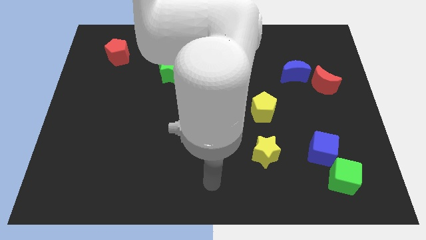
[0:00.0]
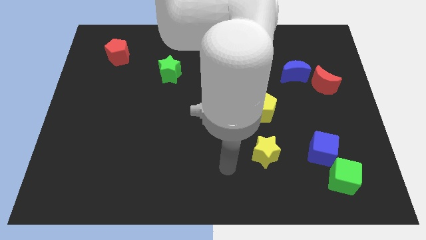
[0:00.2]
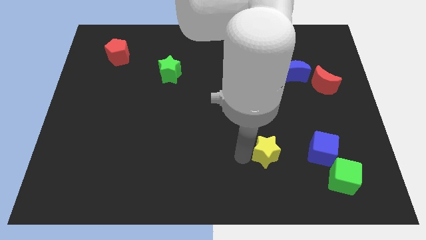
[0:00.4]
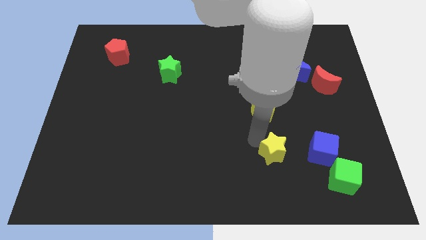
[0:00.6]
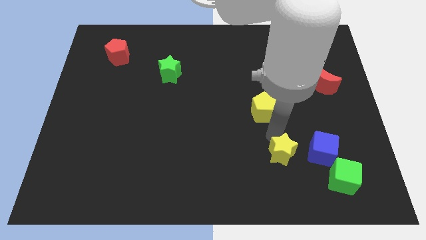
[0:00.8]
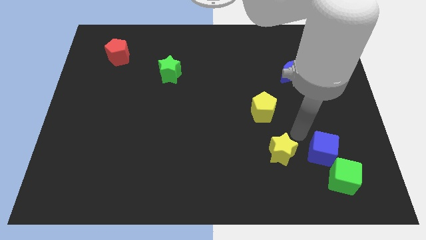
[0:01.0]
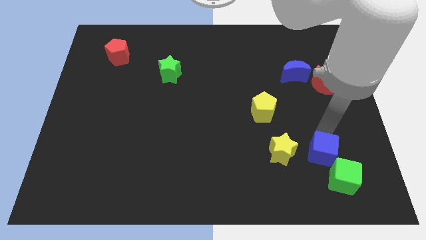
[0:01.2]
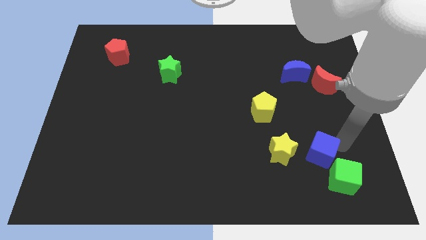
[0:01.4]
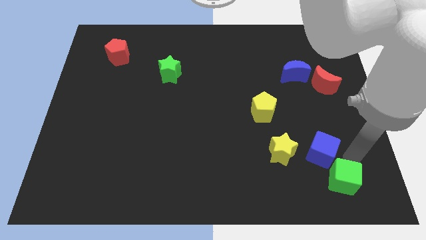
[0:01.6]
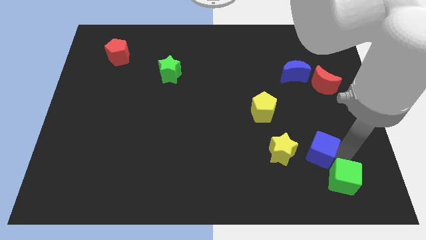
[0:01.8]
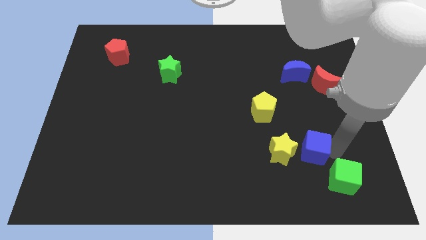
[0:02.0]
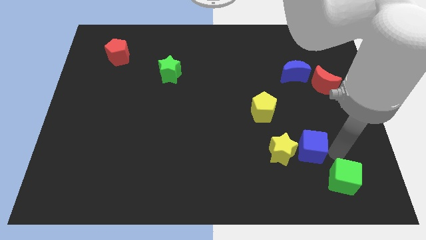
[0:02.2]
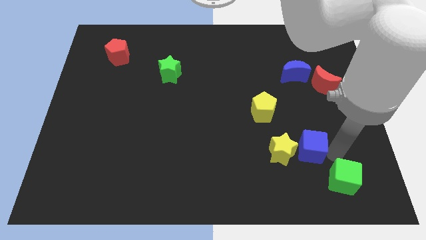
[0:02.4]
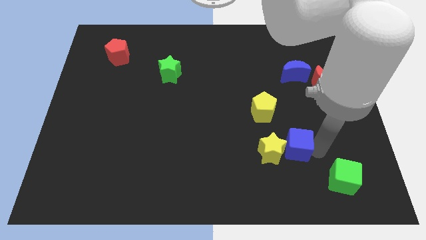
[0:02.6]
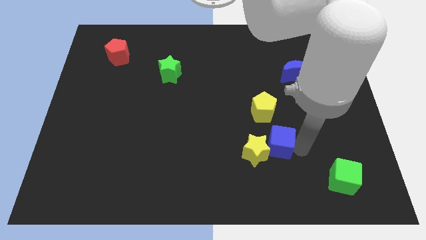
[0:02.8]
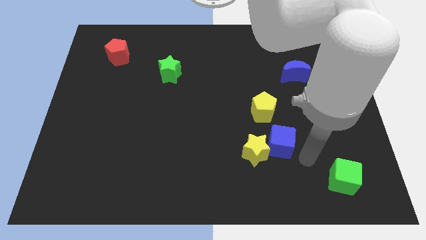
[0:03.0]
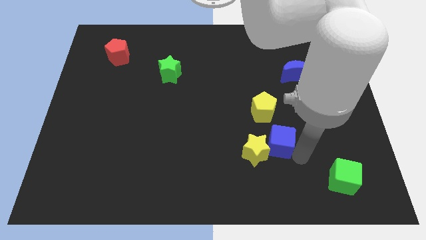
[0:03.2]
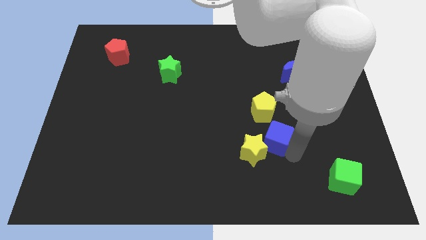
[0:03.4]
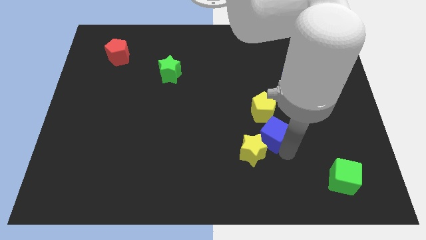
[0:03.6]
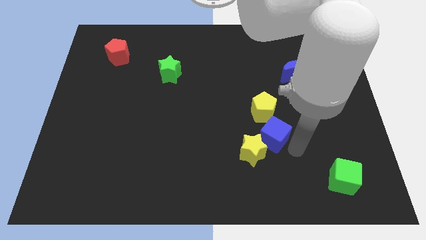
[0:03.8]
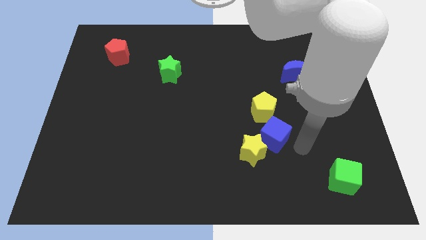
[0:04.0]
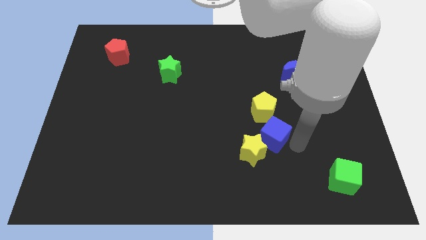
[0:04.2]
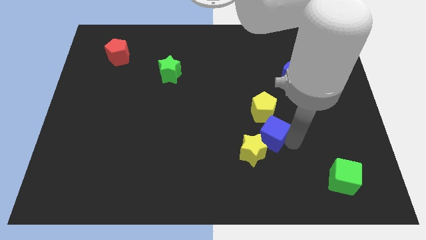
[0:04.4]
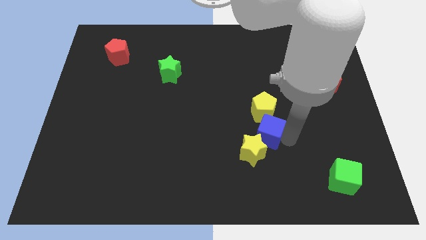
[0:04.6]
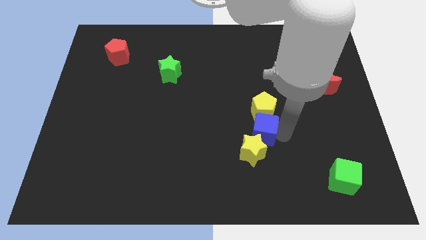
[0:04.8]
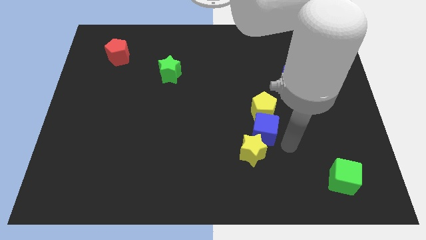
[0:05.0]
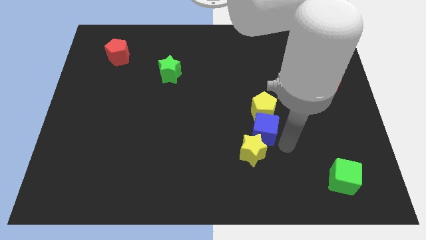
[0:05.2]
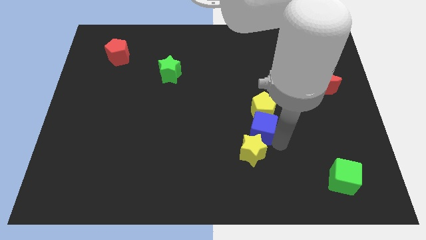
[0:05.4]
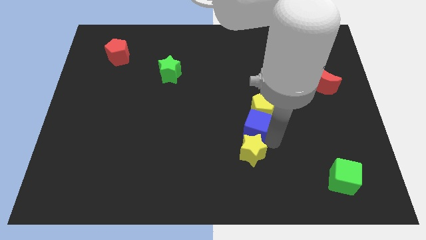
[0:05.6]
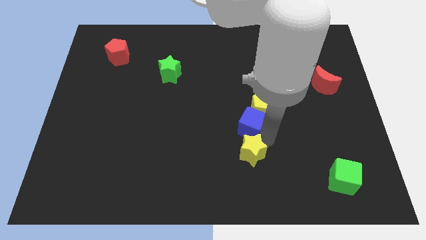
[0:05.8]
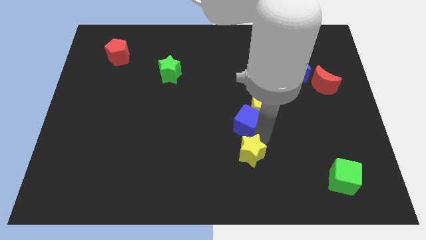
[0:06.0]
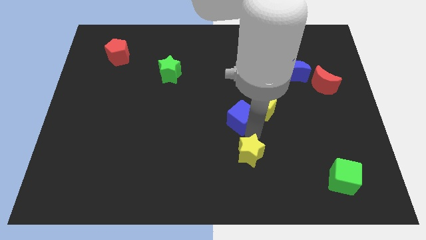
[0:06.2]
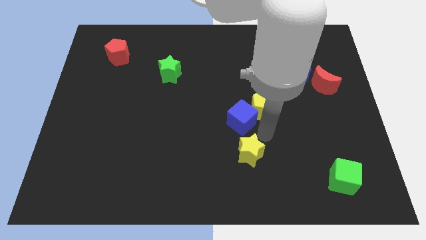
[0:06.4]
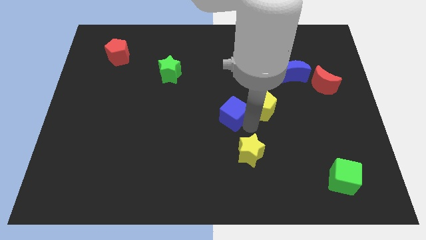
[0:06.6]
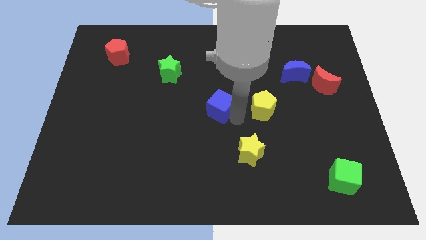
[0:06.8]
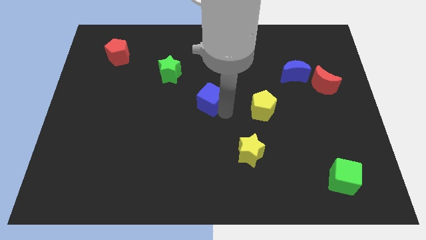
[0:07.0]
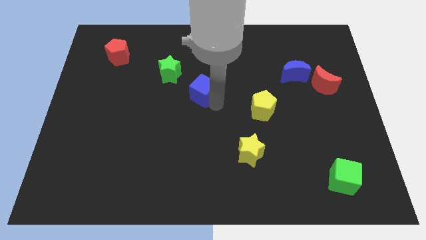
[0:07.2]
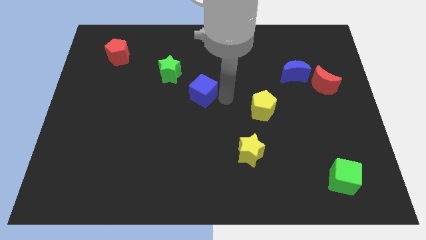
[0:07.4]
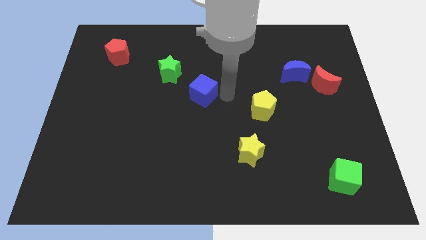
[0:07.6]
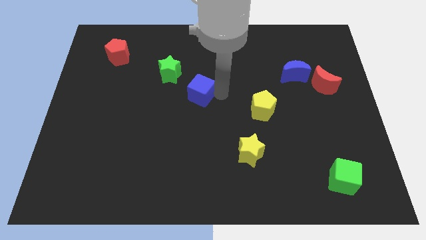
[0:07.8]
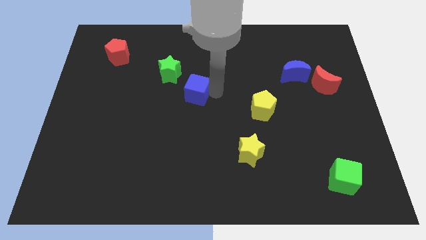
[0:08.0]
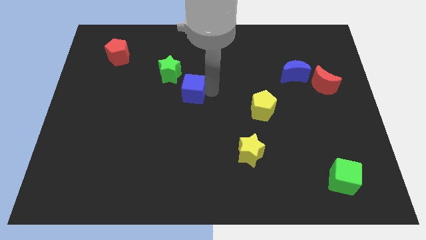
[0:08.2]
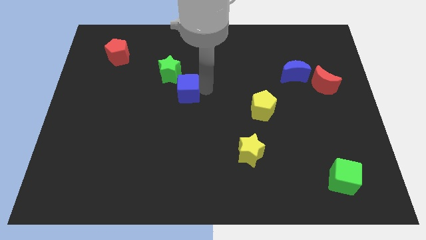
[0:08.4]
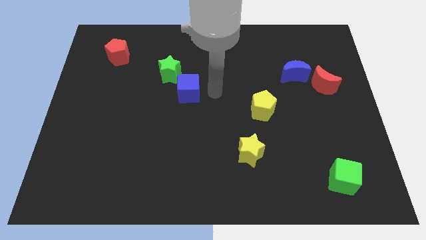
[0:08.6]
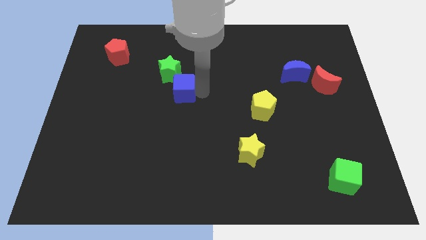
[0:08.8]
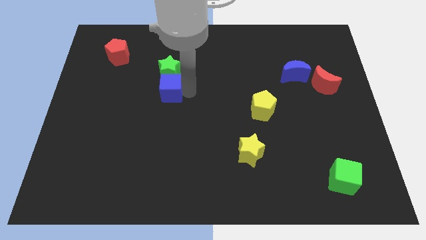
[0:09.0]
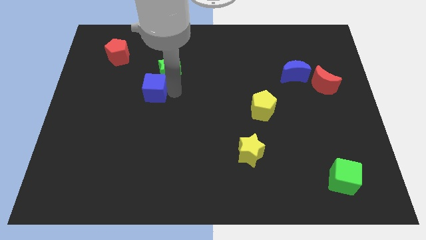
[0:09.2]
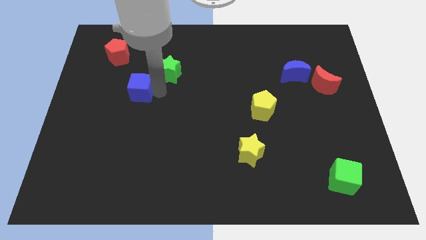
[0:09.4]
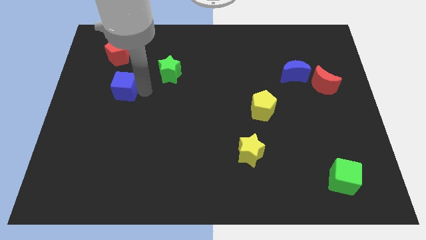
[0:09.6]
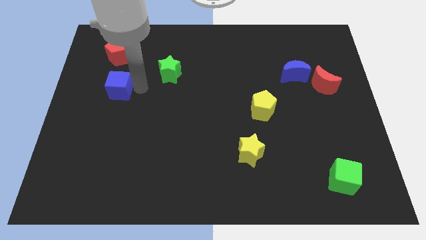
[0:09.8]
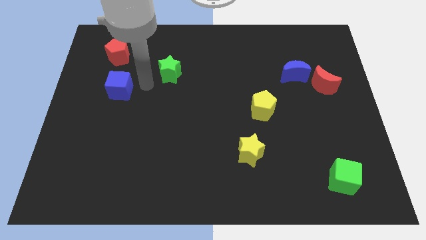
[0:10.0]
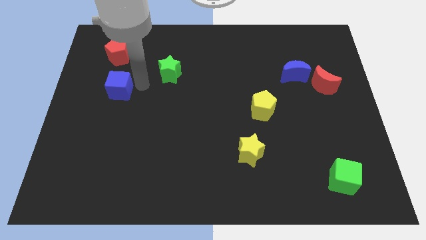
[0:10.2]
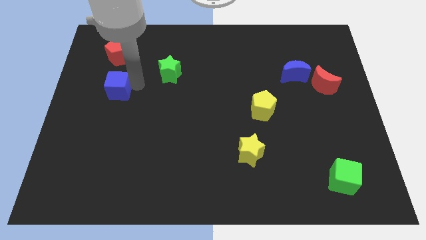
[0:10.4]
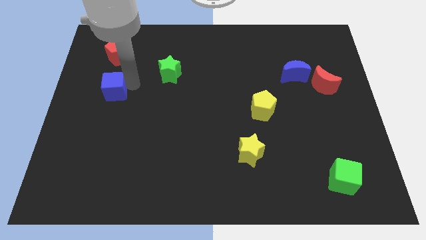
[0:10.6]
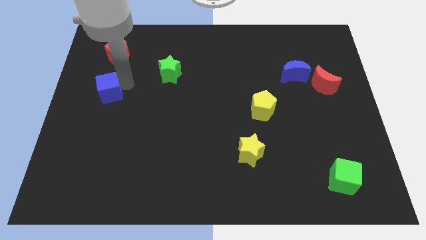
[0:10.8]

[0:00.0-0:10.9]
slide the blue cube to the center left
